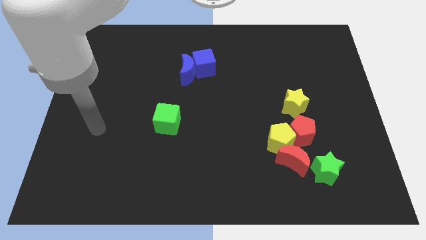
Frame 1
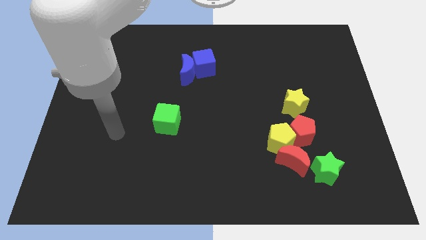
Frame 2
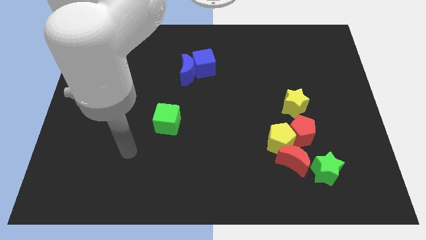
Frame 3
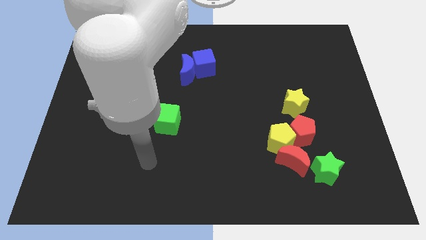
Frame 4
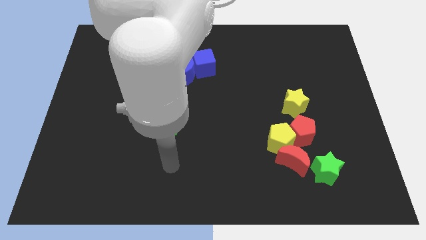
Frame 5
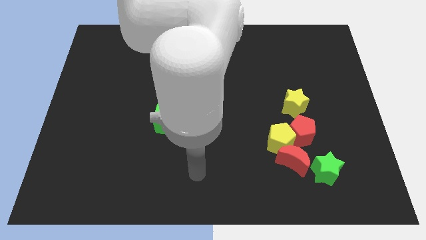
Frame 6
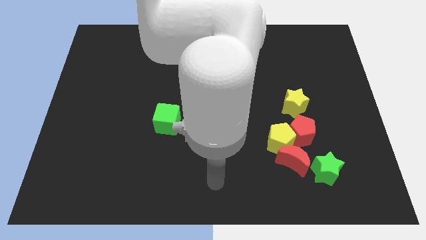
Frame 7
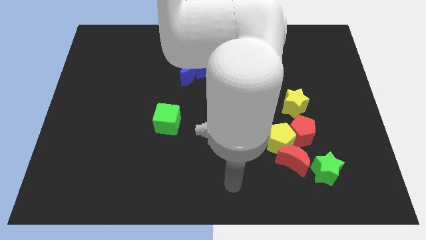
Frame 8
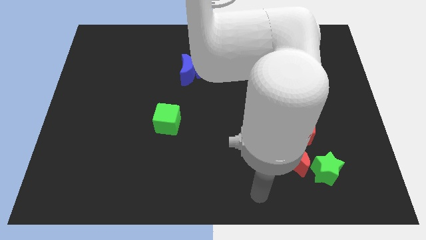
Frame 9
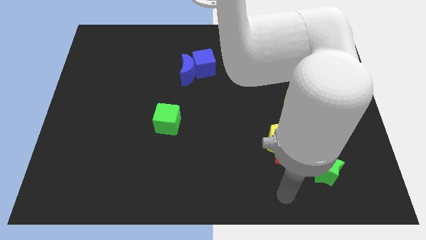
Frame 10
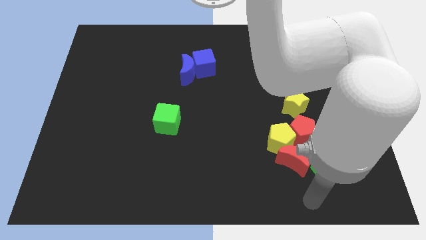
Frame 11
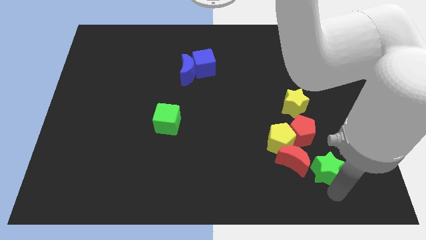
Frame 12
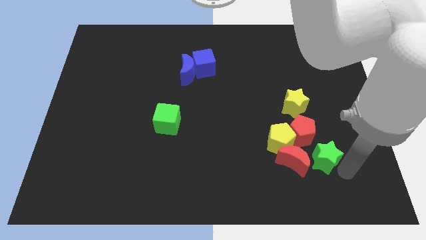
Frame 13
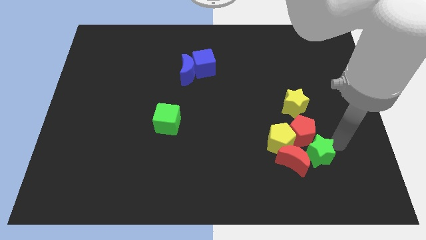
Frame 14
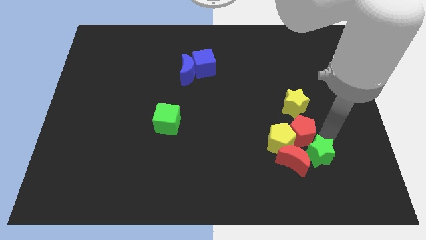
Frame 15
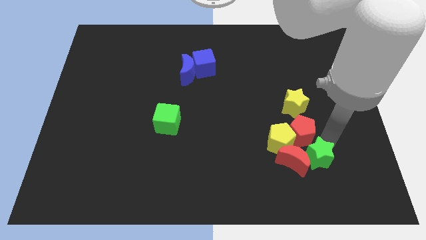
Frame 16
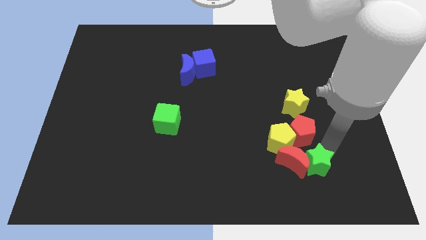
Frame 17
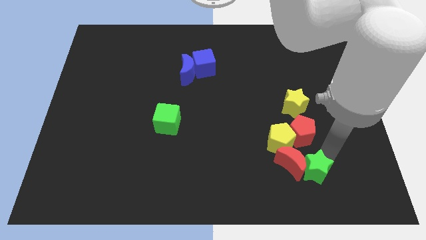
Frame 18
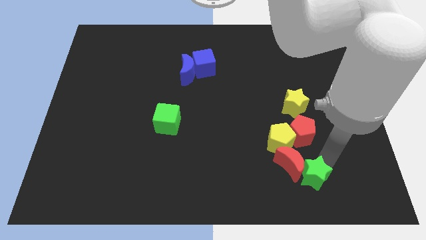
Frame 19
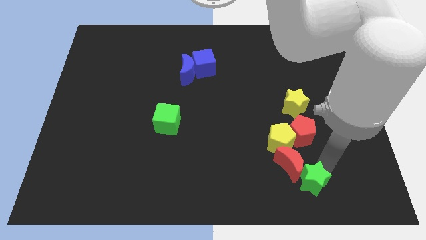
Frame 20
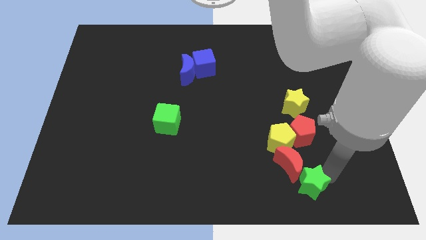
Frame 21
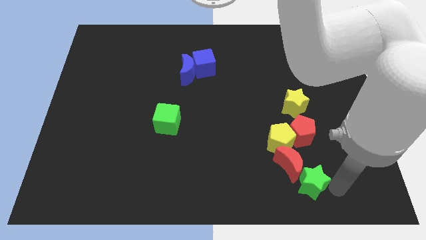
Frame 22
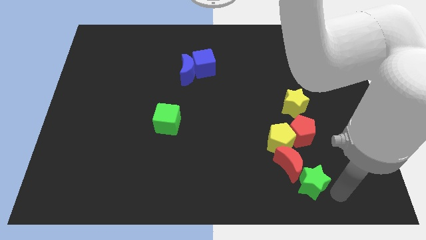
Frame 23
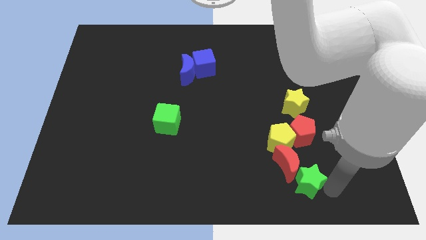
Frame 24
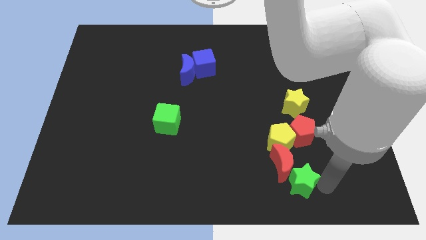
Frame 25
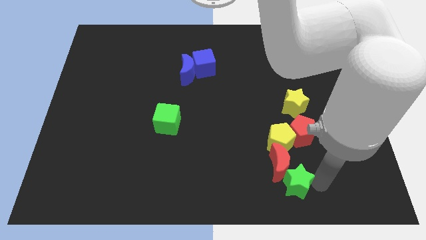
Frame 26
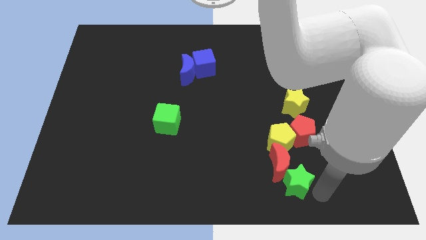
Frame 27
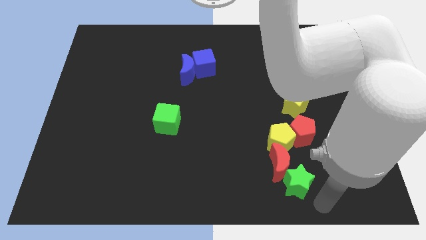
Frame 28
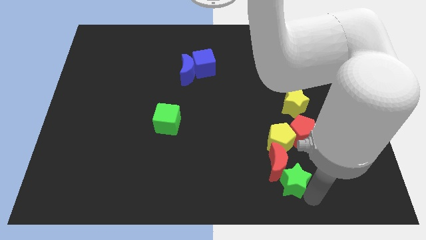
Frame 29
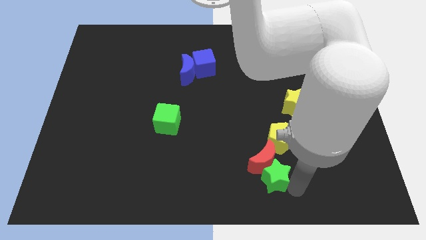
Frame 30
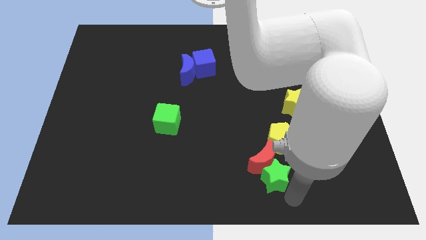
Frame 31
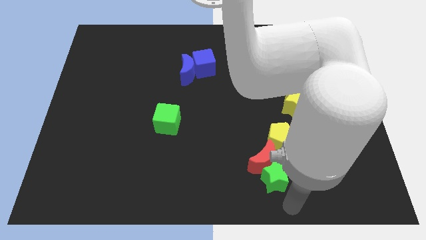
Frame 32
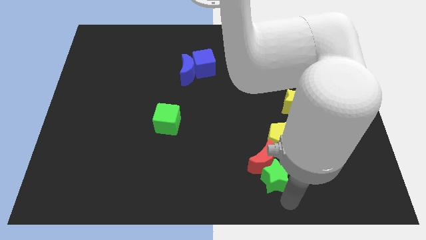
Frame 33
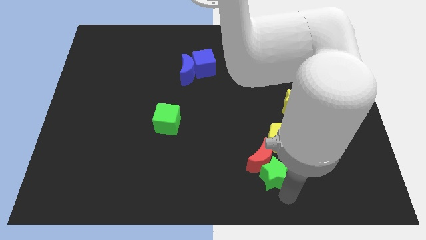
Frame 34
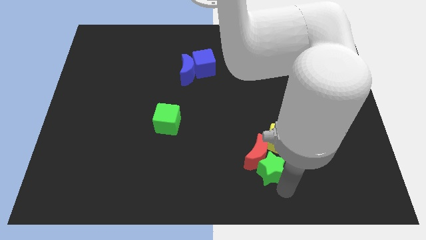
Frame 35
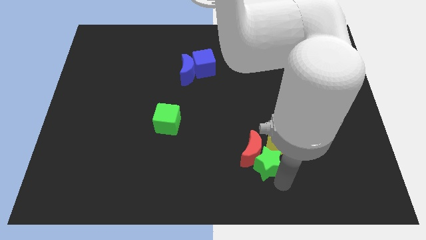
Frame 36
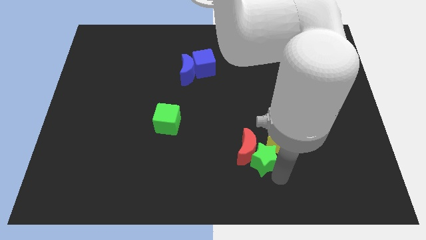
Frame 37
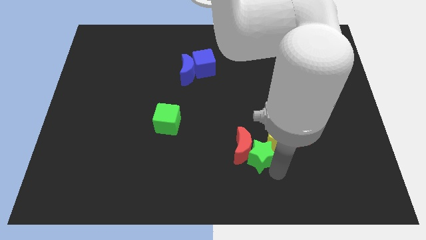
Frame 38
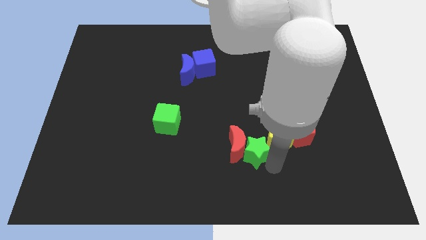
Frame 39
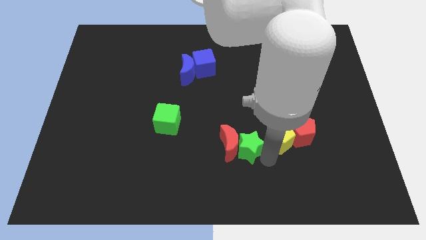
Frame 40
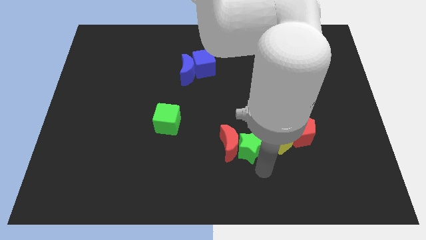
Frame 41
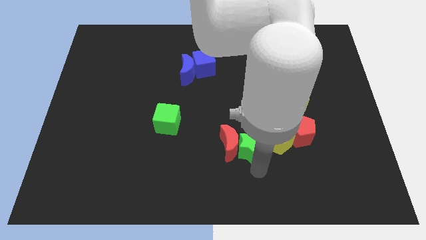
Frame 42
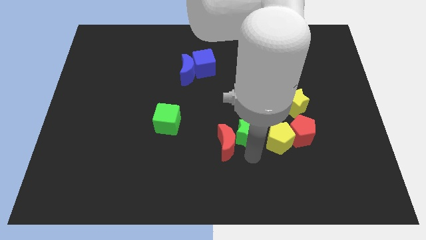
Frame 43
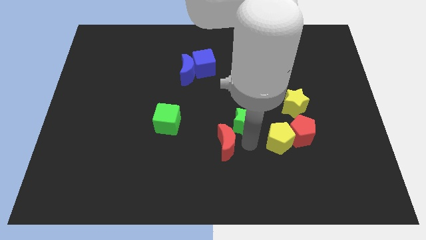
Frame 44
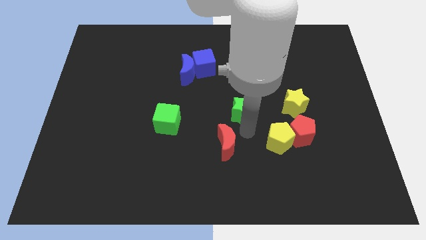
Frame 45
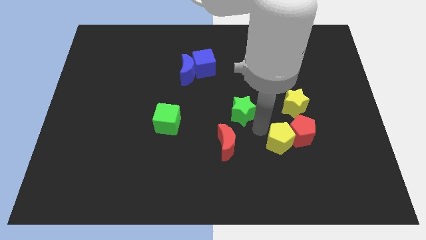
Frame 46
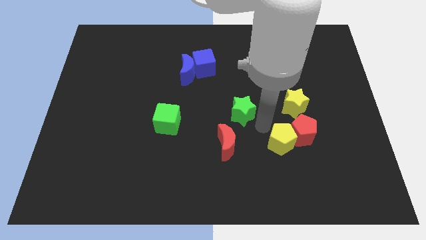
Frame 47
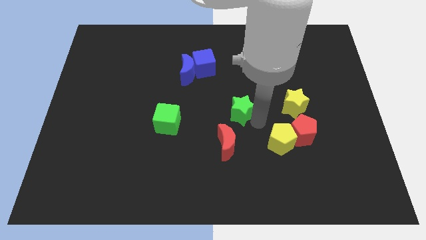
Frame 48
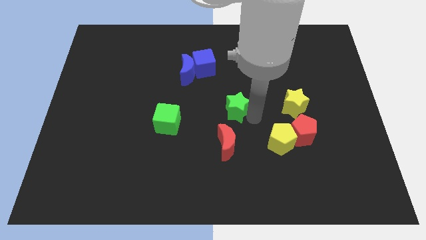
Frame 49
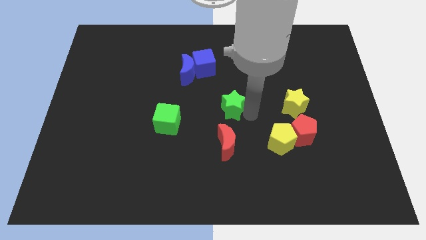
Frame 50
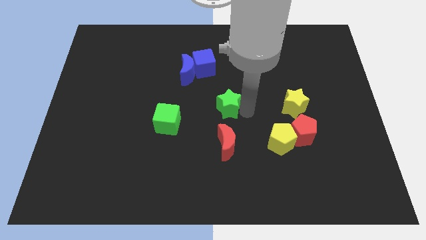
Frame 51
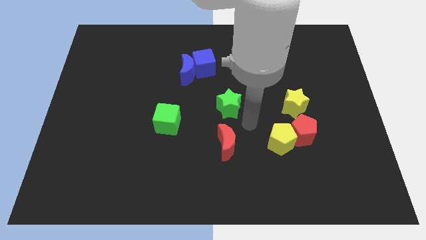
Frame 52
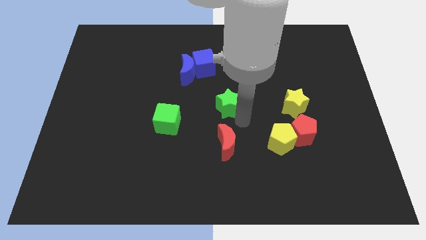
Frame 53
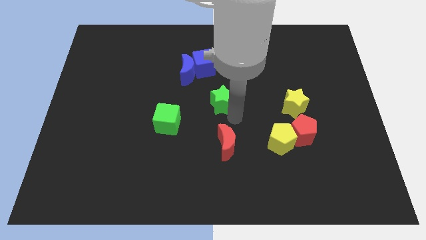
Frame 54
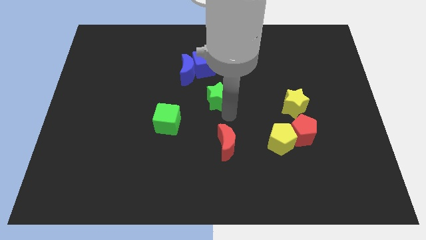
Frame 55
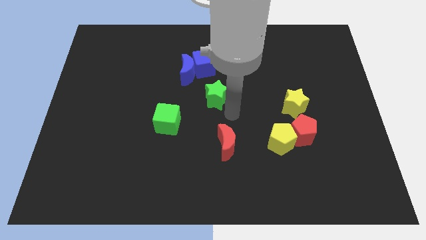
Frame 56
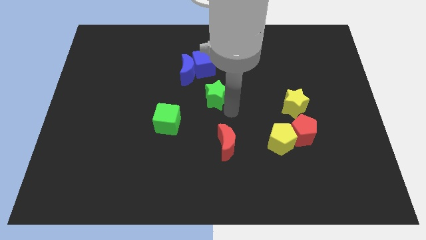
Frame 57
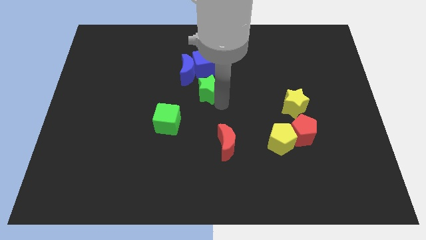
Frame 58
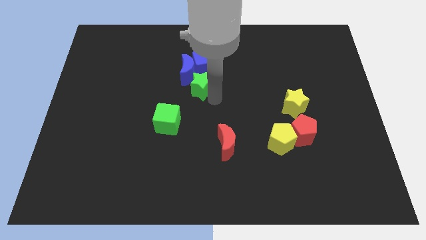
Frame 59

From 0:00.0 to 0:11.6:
move the green star next to the blue moon

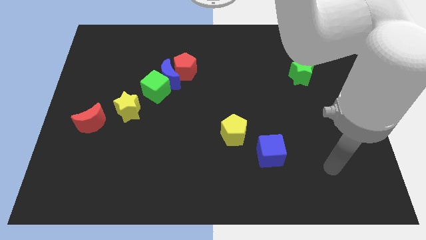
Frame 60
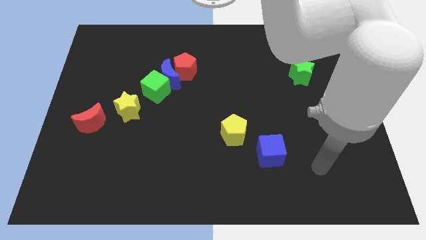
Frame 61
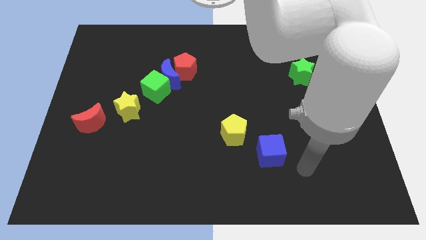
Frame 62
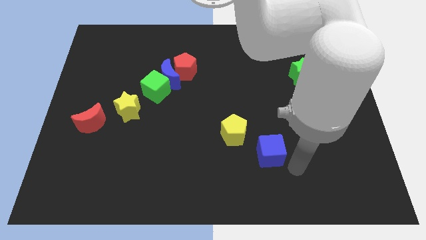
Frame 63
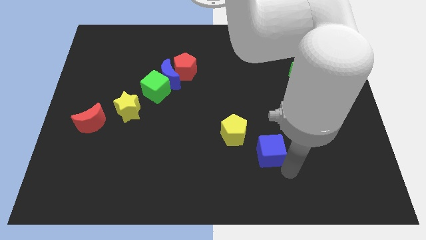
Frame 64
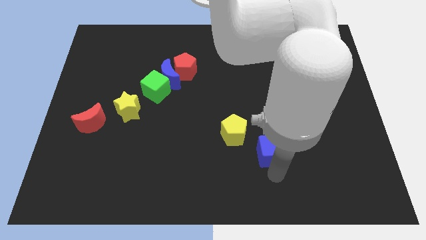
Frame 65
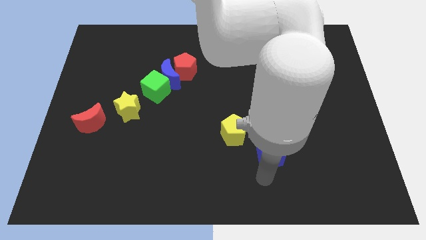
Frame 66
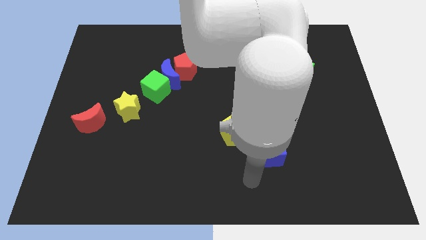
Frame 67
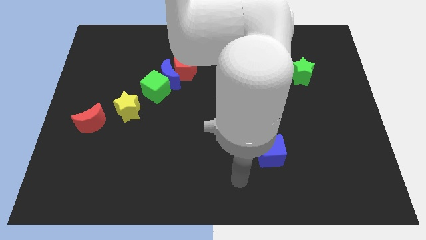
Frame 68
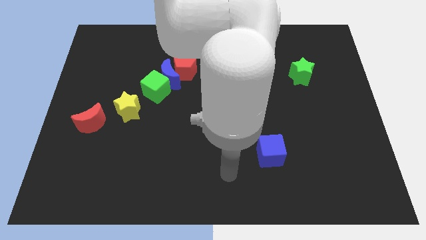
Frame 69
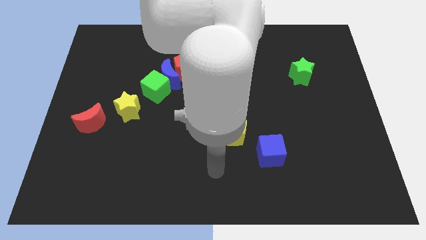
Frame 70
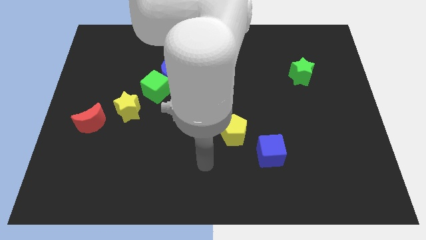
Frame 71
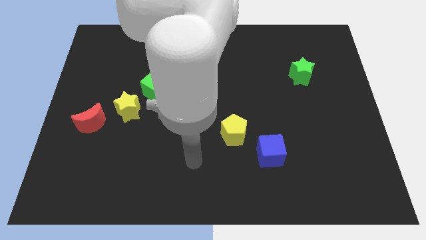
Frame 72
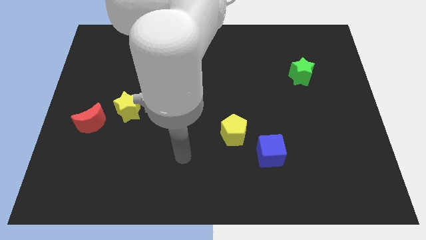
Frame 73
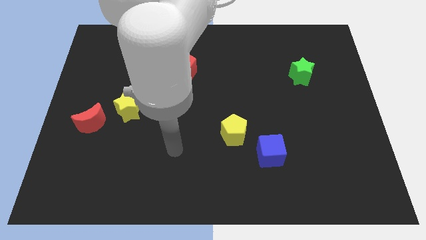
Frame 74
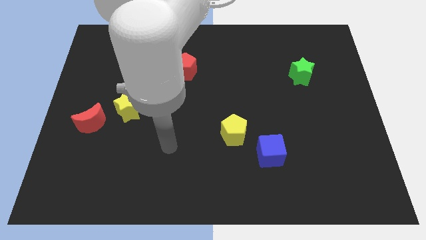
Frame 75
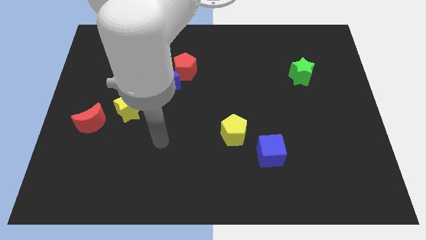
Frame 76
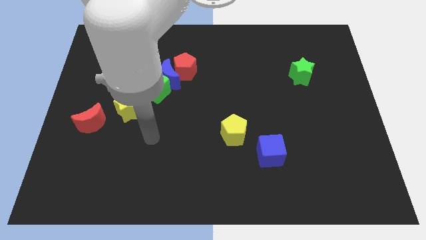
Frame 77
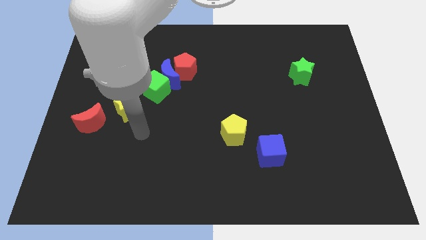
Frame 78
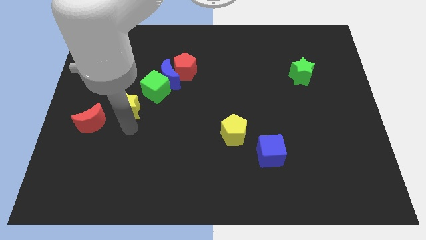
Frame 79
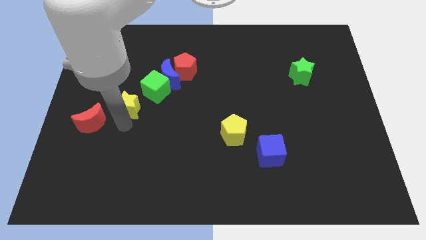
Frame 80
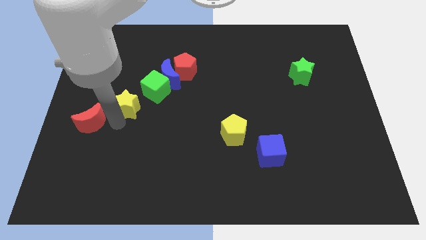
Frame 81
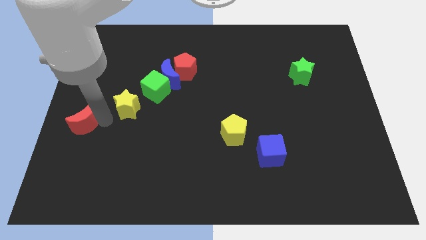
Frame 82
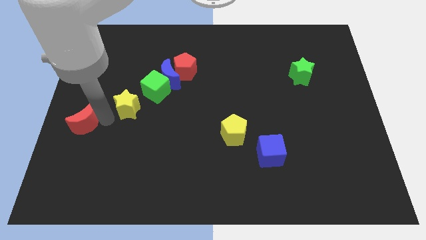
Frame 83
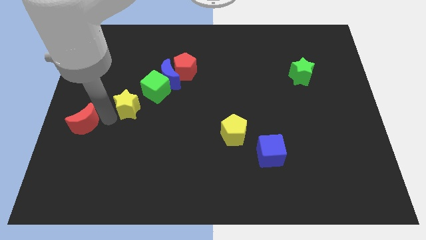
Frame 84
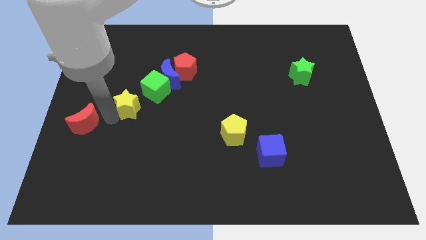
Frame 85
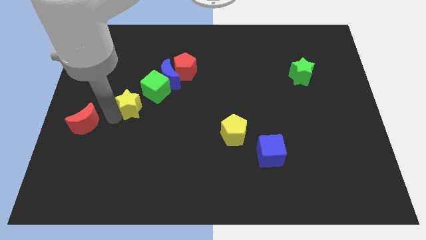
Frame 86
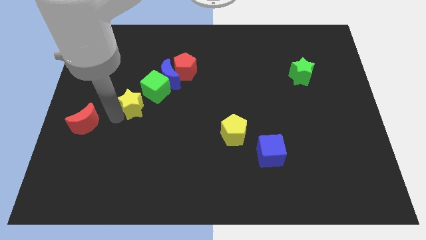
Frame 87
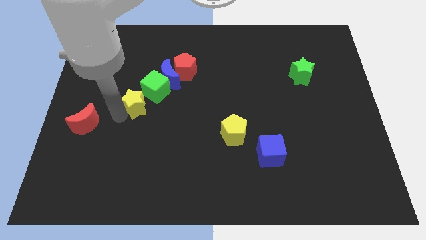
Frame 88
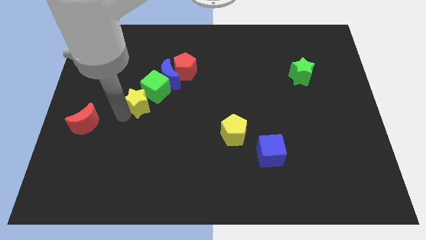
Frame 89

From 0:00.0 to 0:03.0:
move the yellow star next to the green cube
